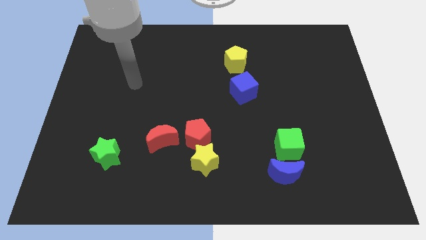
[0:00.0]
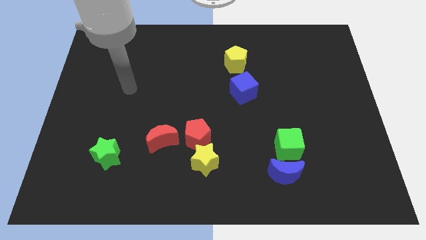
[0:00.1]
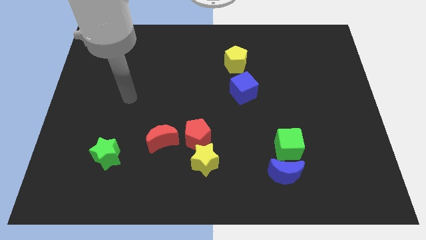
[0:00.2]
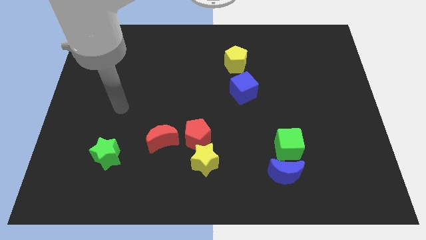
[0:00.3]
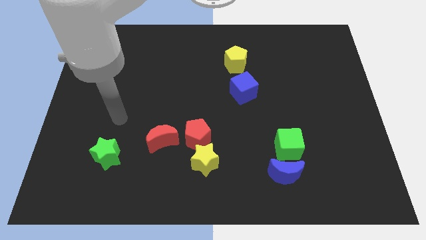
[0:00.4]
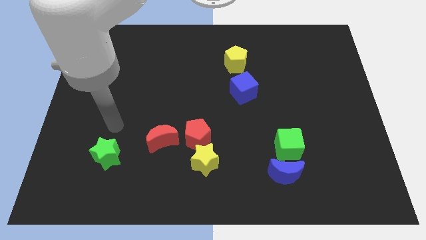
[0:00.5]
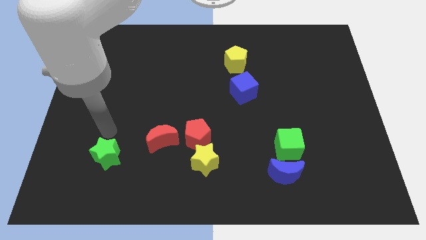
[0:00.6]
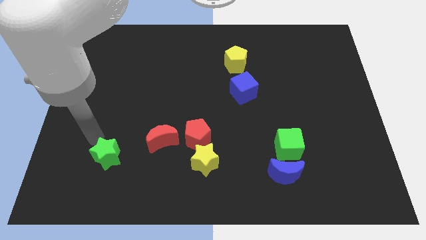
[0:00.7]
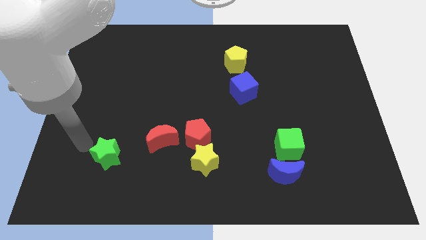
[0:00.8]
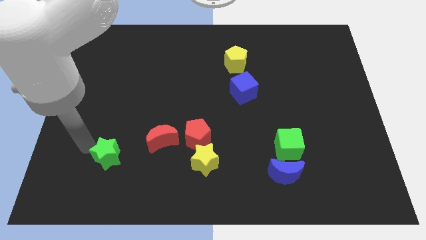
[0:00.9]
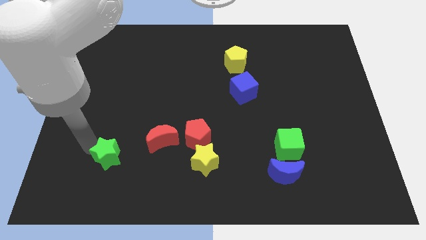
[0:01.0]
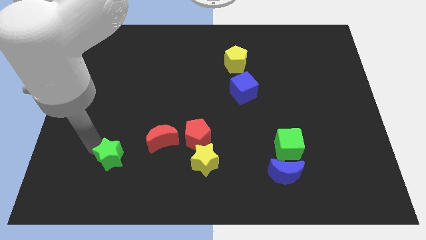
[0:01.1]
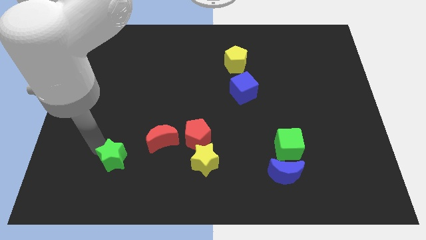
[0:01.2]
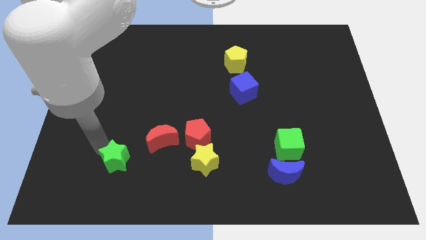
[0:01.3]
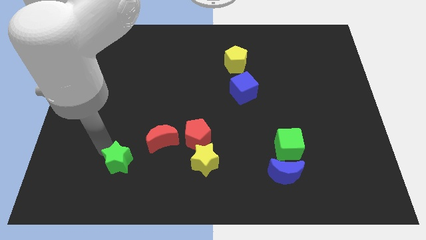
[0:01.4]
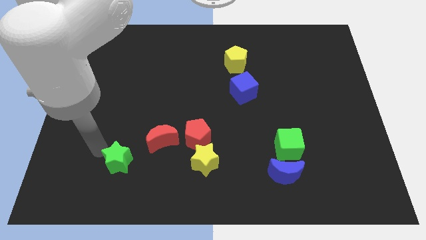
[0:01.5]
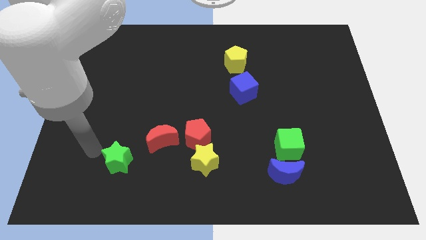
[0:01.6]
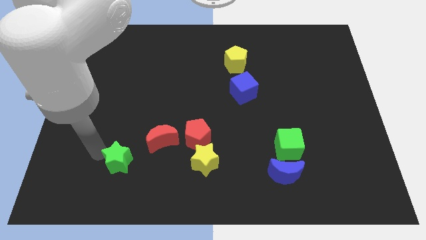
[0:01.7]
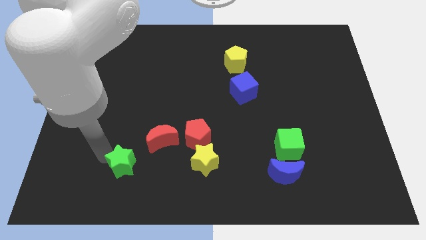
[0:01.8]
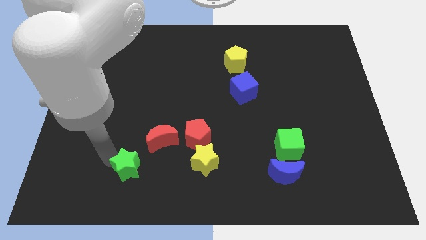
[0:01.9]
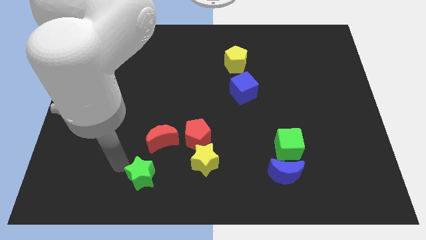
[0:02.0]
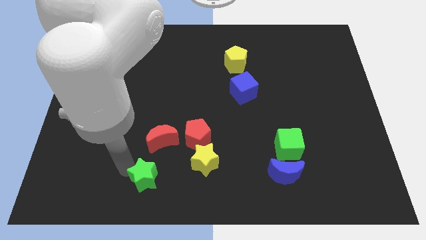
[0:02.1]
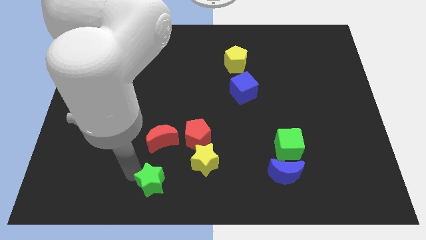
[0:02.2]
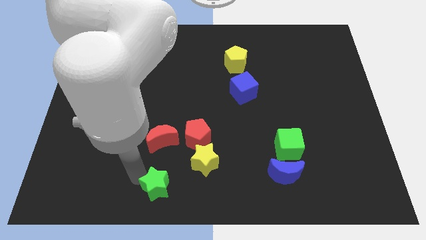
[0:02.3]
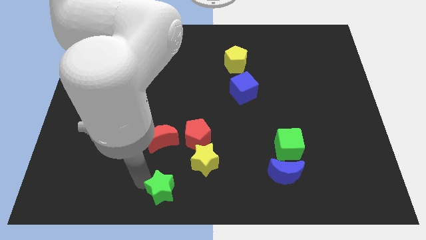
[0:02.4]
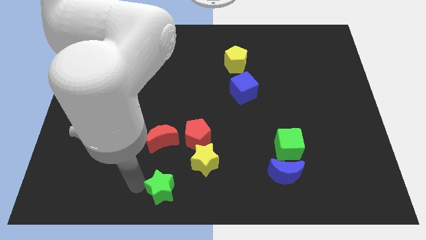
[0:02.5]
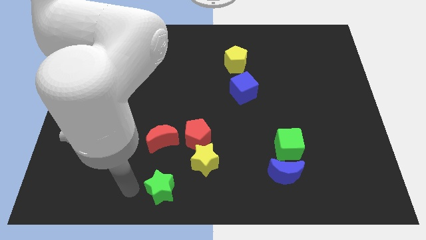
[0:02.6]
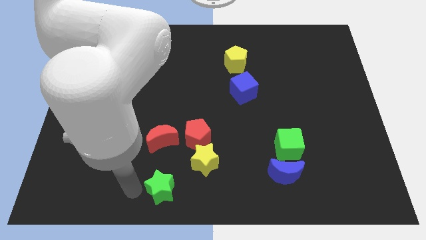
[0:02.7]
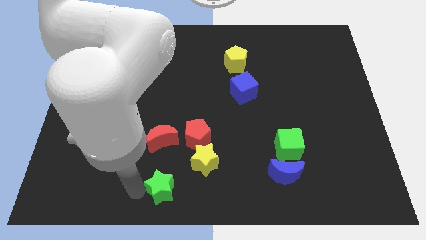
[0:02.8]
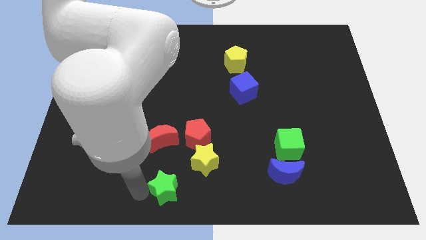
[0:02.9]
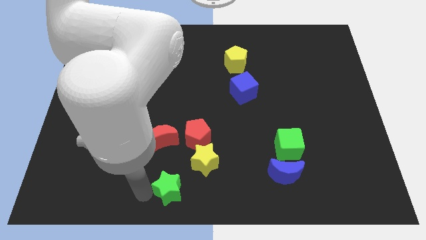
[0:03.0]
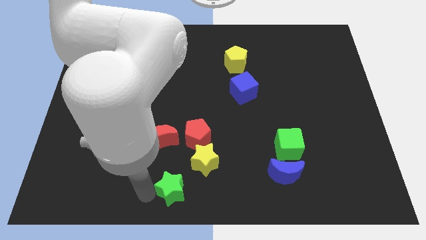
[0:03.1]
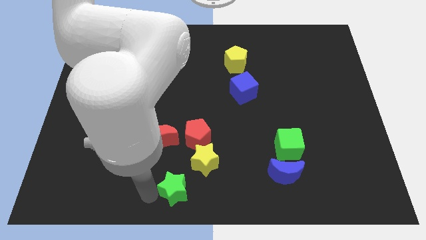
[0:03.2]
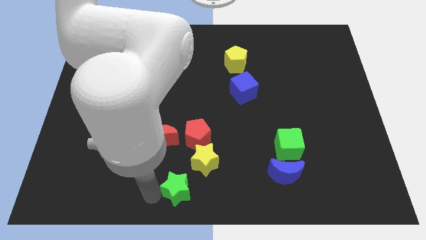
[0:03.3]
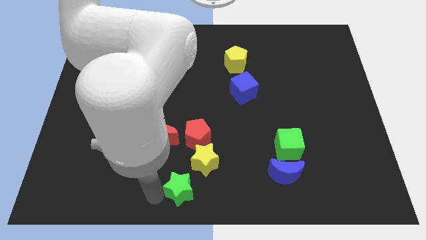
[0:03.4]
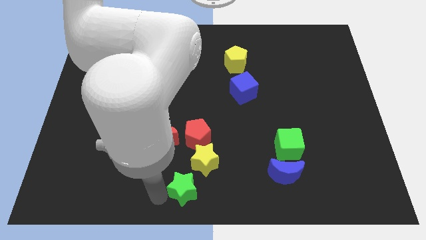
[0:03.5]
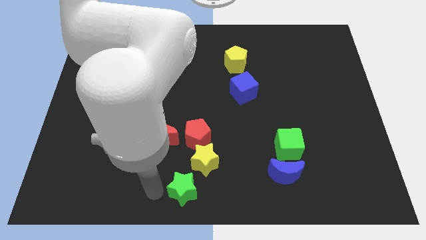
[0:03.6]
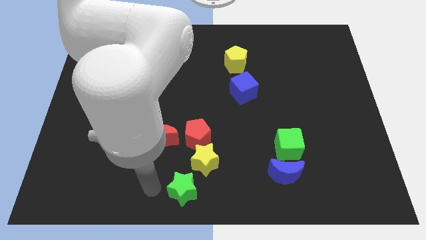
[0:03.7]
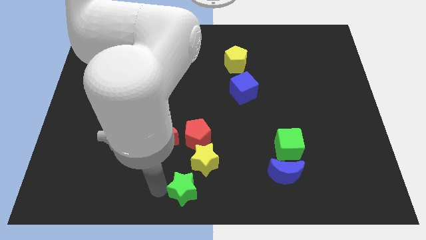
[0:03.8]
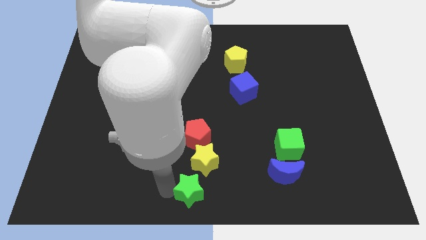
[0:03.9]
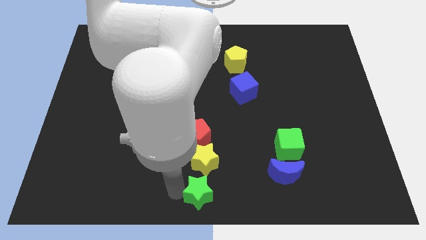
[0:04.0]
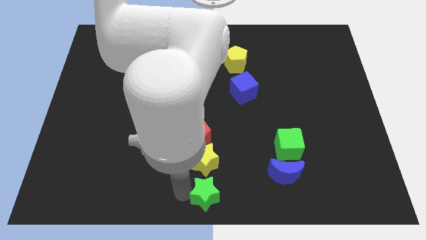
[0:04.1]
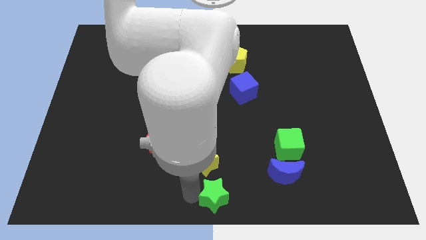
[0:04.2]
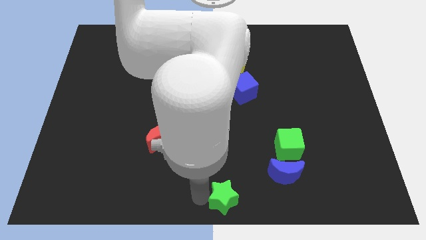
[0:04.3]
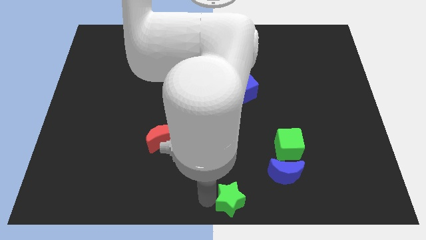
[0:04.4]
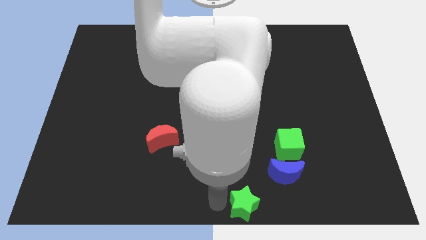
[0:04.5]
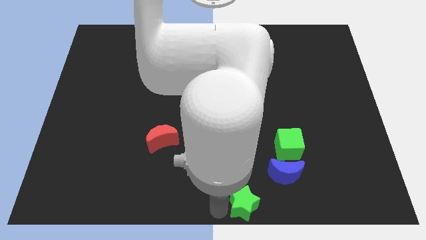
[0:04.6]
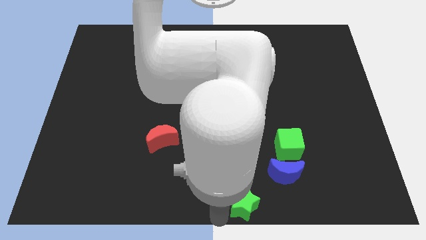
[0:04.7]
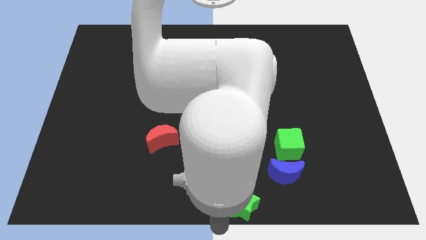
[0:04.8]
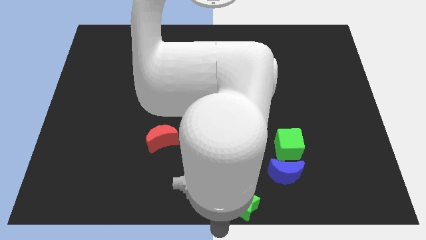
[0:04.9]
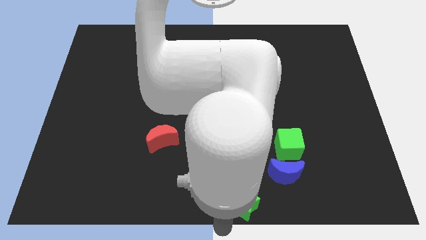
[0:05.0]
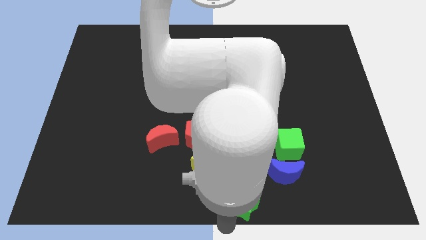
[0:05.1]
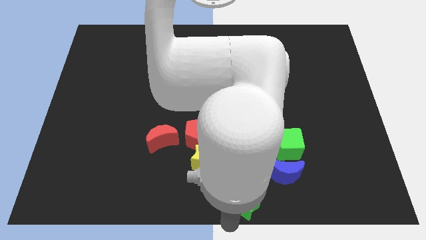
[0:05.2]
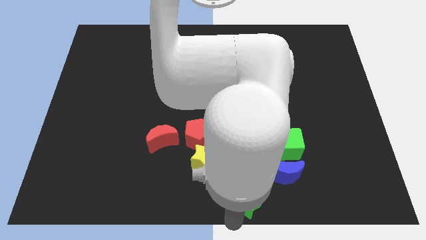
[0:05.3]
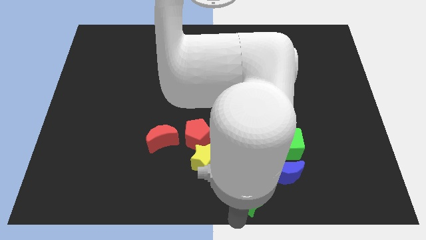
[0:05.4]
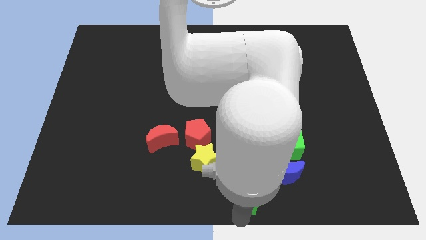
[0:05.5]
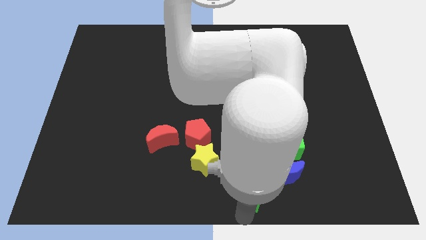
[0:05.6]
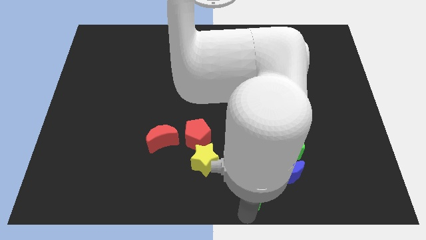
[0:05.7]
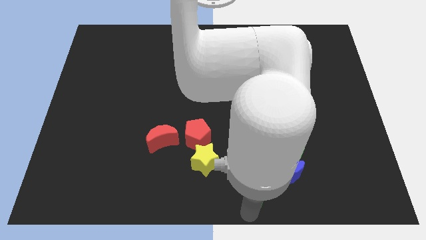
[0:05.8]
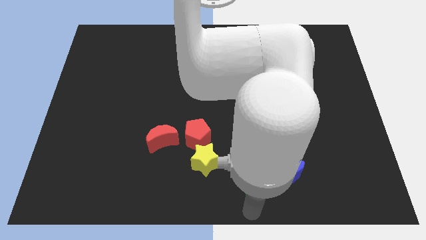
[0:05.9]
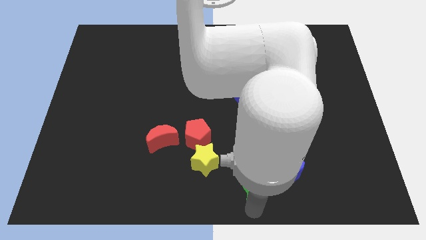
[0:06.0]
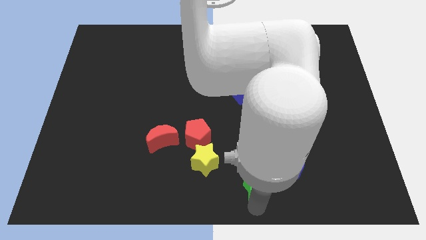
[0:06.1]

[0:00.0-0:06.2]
put the green star next to the blue moon

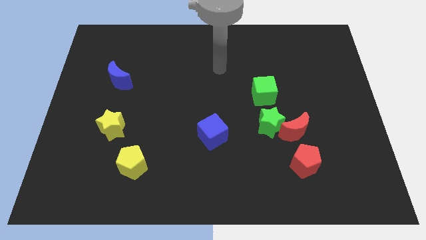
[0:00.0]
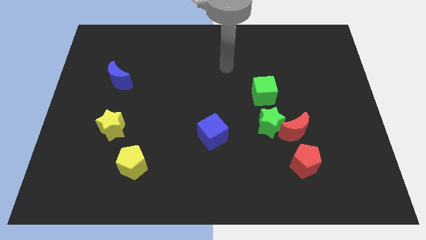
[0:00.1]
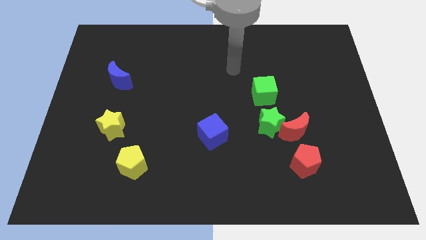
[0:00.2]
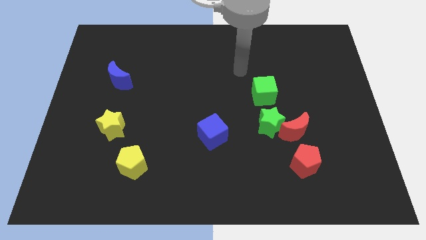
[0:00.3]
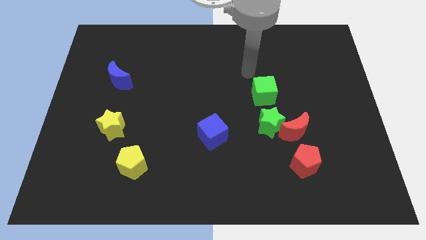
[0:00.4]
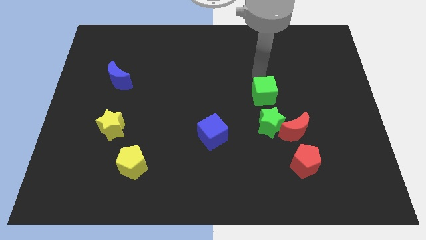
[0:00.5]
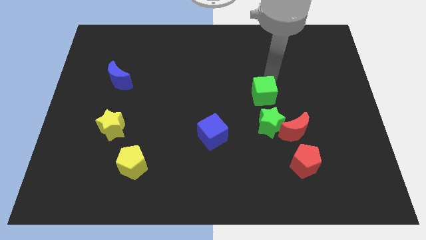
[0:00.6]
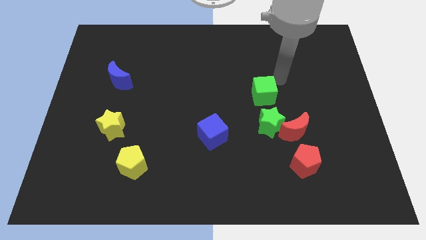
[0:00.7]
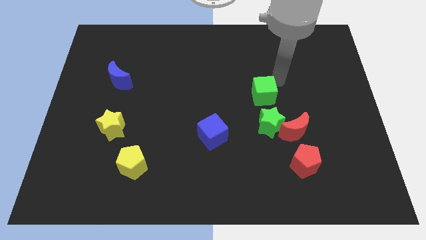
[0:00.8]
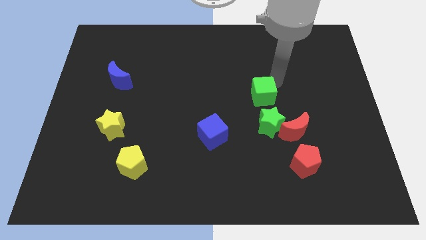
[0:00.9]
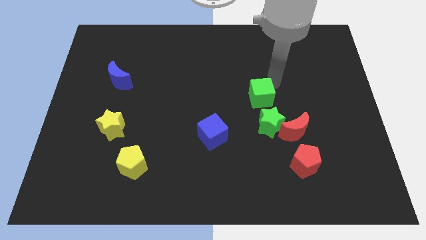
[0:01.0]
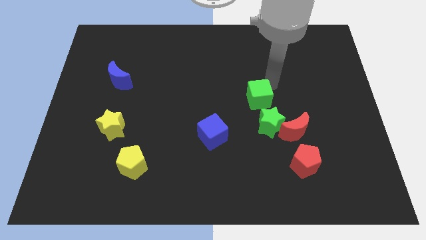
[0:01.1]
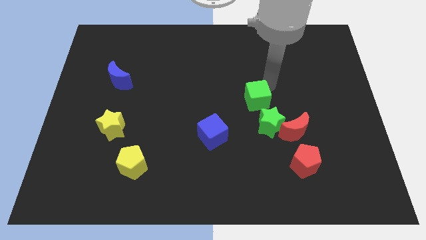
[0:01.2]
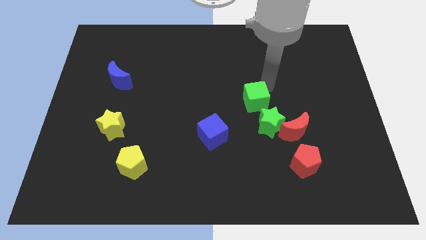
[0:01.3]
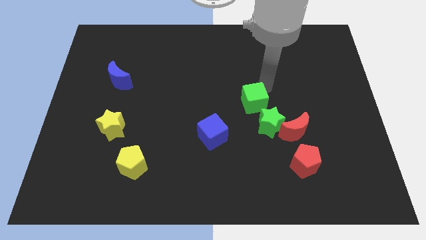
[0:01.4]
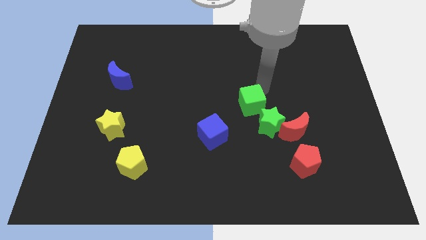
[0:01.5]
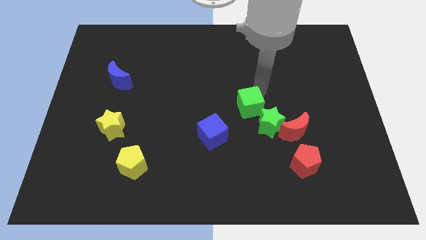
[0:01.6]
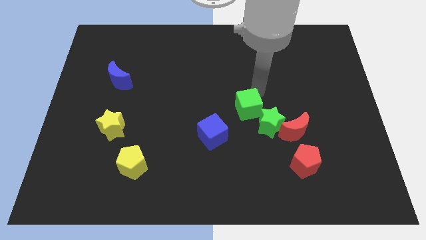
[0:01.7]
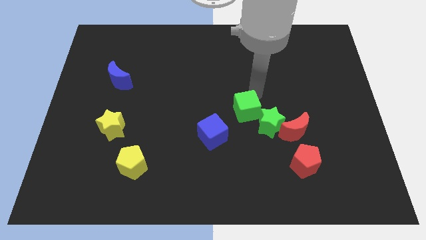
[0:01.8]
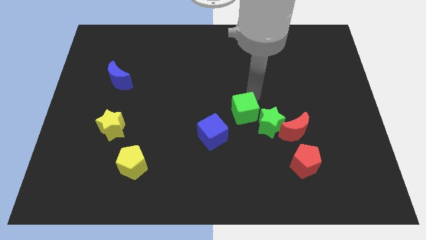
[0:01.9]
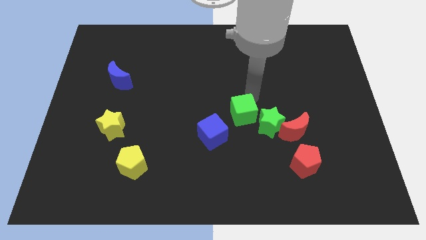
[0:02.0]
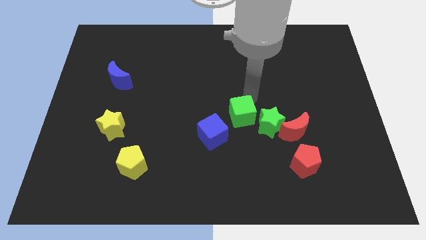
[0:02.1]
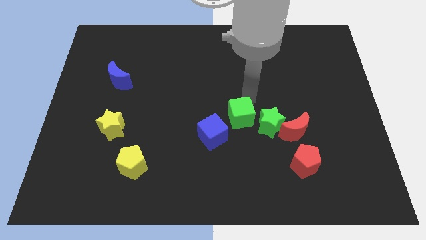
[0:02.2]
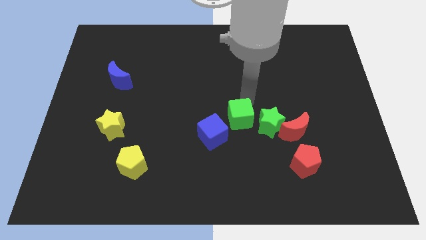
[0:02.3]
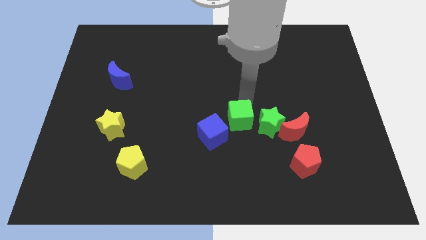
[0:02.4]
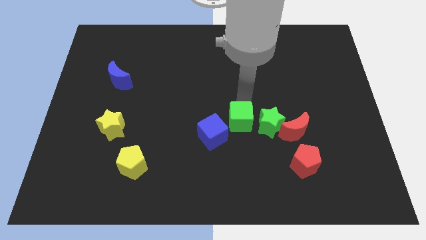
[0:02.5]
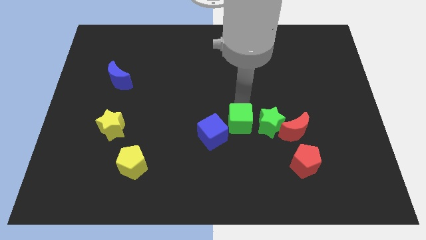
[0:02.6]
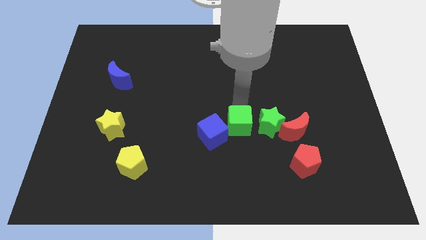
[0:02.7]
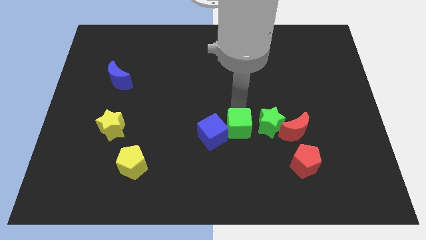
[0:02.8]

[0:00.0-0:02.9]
put the green cube to the blue cube
